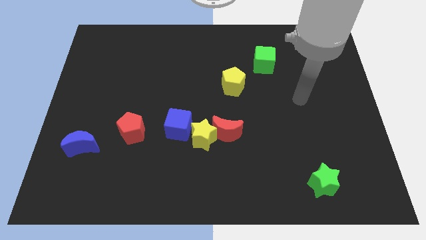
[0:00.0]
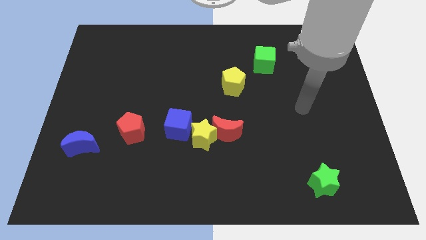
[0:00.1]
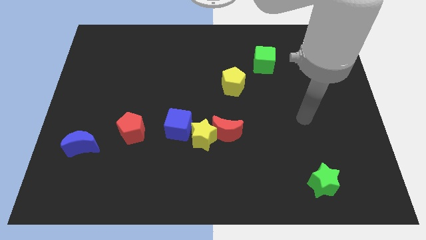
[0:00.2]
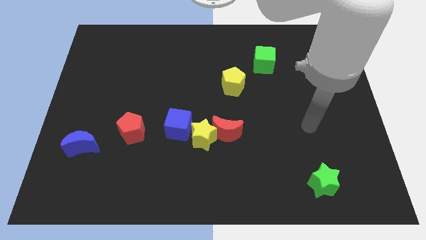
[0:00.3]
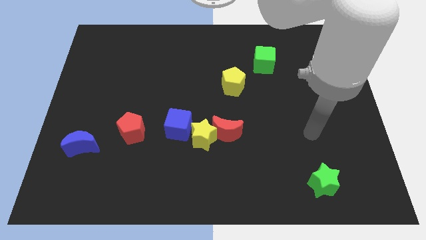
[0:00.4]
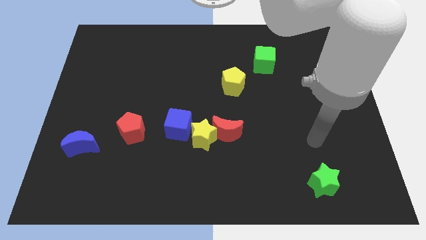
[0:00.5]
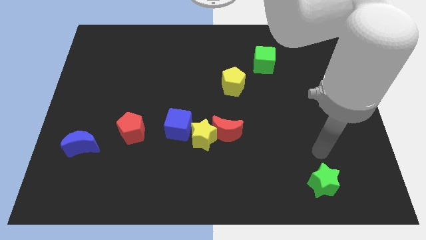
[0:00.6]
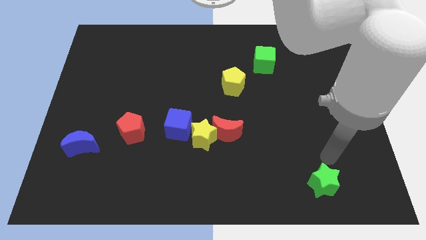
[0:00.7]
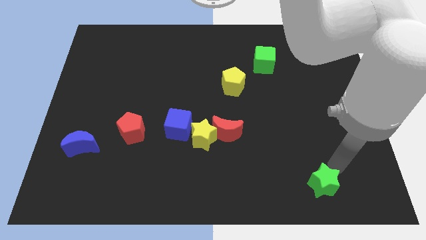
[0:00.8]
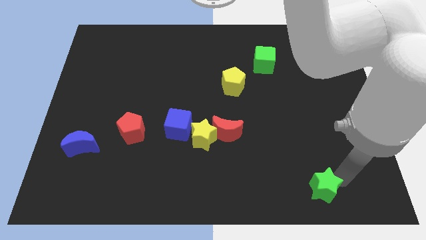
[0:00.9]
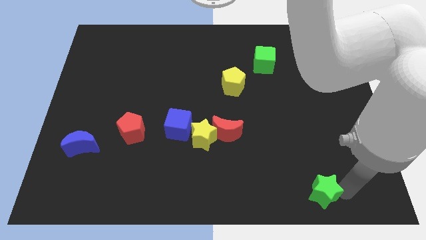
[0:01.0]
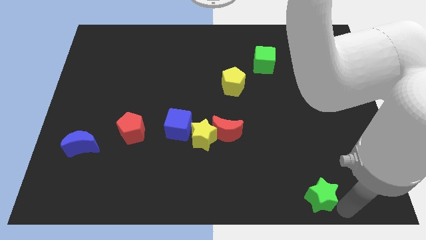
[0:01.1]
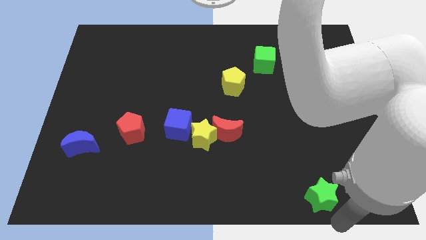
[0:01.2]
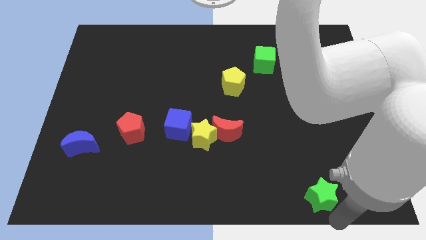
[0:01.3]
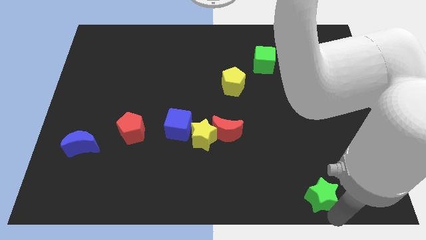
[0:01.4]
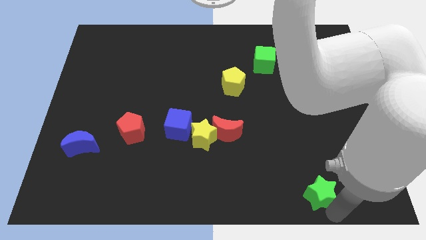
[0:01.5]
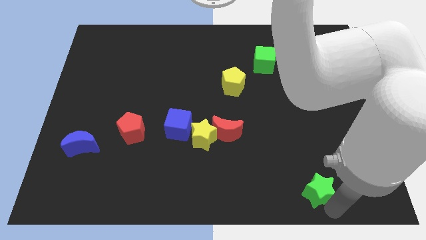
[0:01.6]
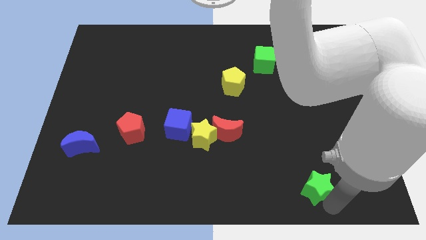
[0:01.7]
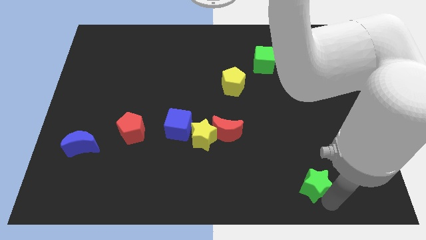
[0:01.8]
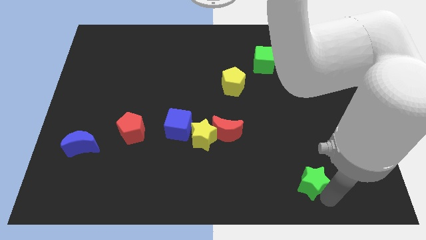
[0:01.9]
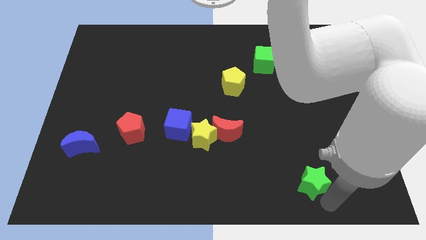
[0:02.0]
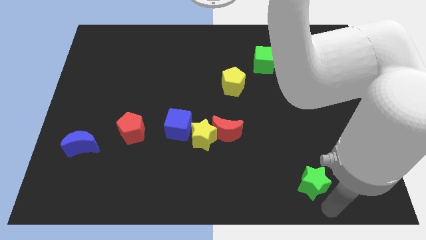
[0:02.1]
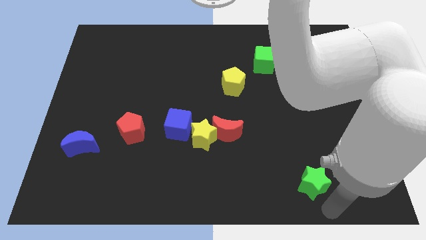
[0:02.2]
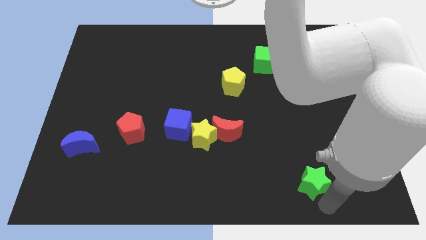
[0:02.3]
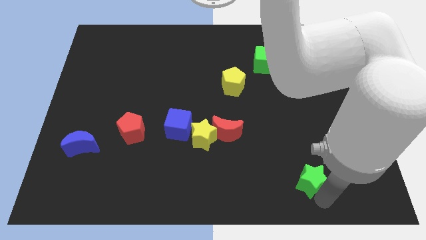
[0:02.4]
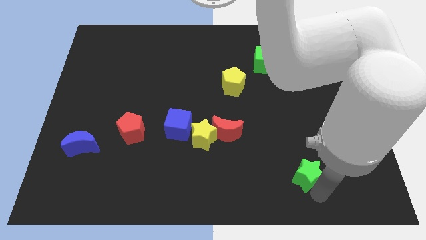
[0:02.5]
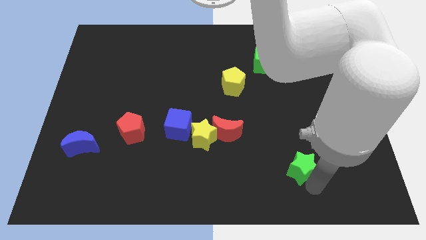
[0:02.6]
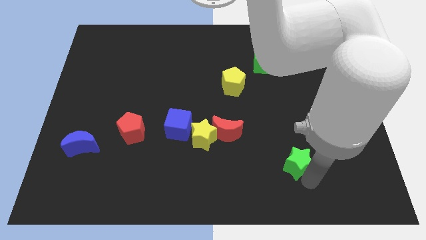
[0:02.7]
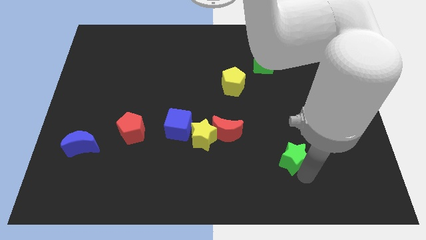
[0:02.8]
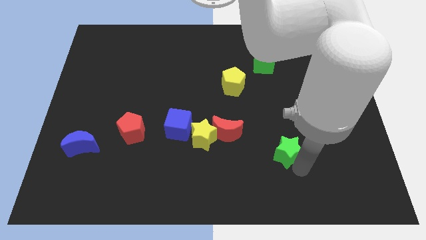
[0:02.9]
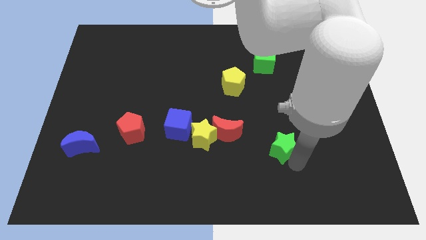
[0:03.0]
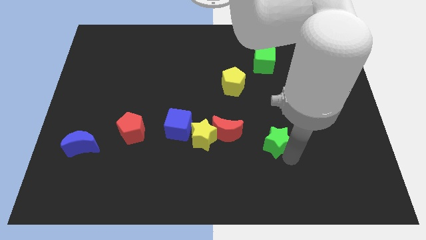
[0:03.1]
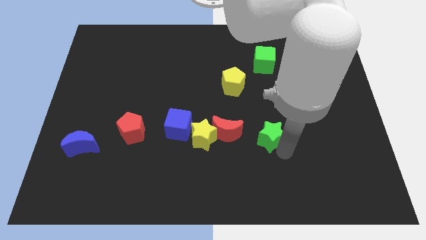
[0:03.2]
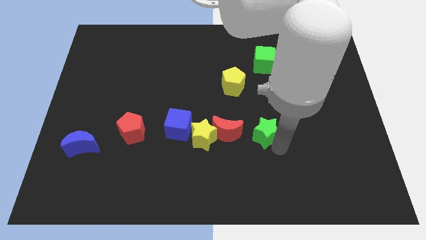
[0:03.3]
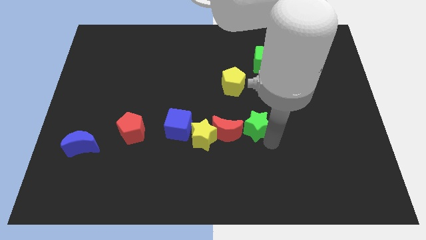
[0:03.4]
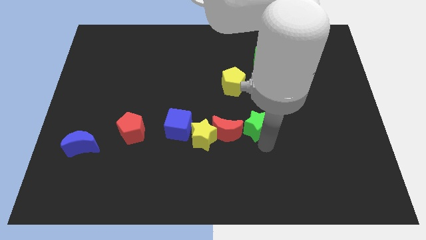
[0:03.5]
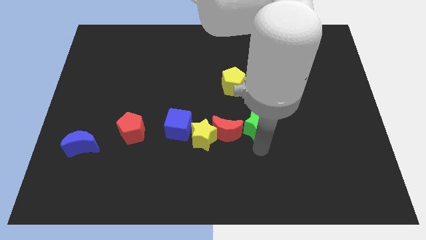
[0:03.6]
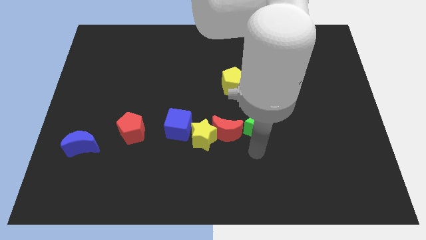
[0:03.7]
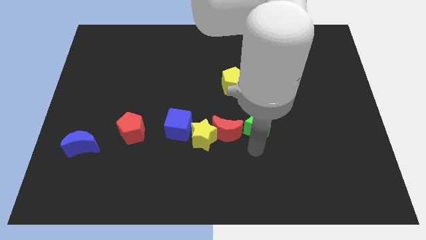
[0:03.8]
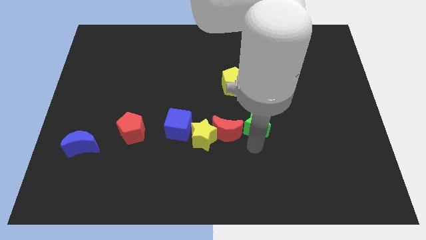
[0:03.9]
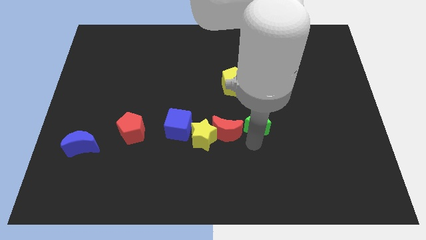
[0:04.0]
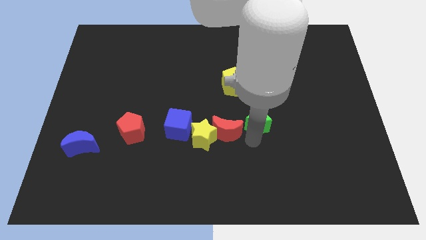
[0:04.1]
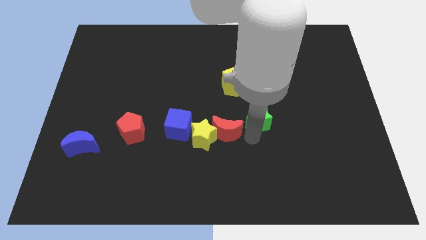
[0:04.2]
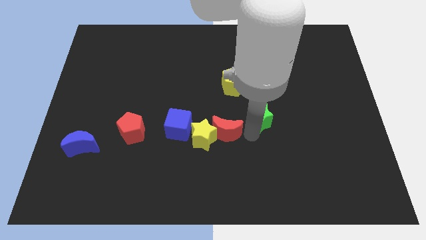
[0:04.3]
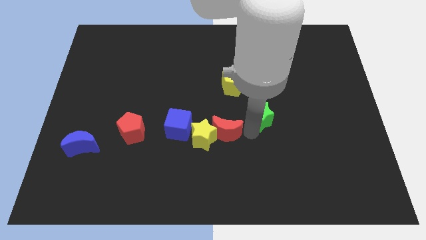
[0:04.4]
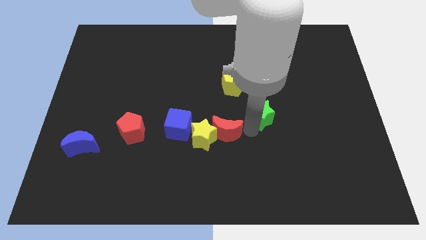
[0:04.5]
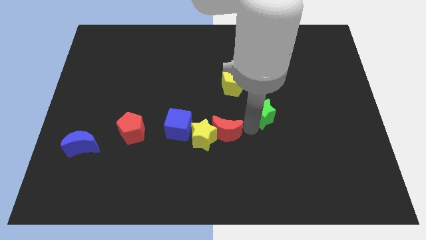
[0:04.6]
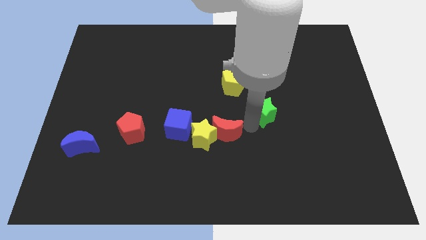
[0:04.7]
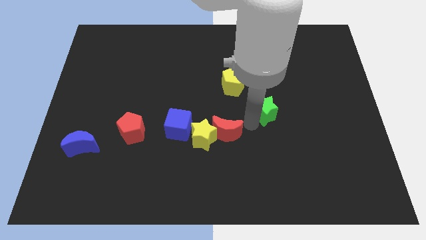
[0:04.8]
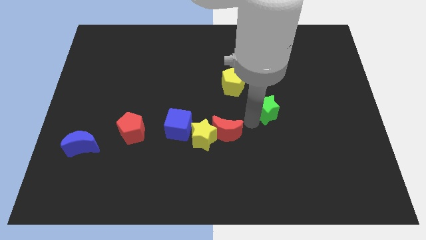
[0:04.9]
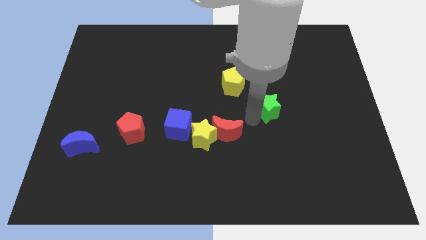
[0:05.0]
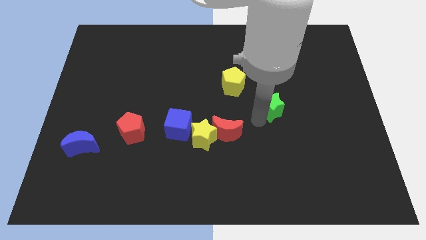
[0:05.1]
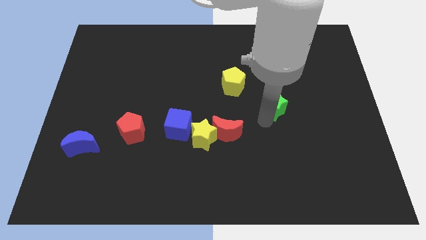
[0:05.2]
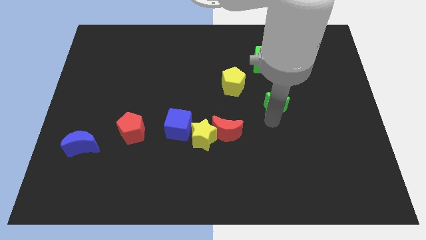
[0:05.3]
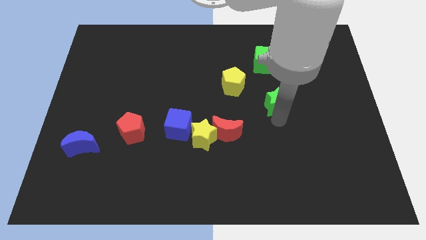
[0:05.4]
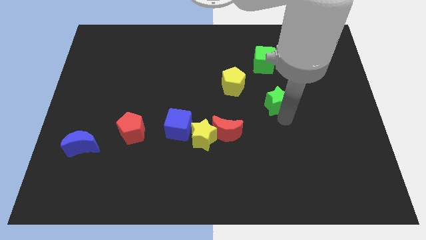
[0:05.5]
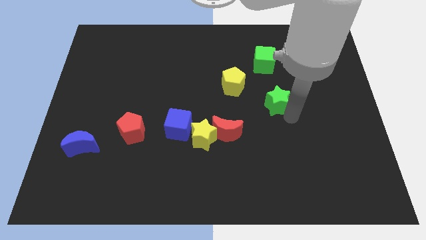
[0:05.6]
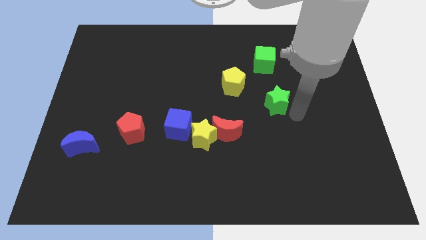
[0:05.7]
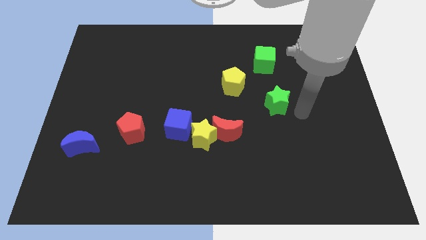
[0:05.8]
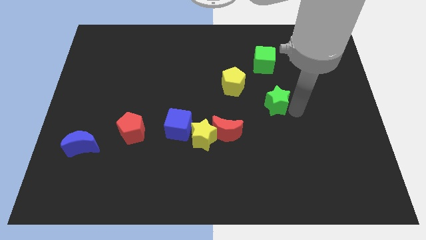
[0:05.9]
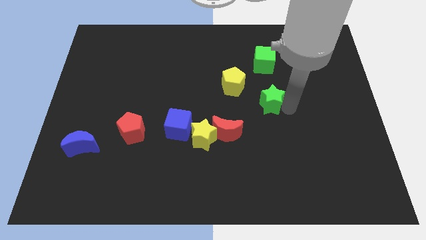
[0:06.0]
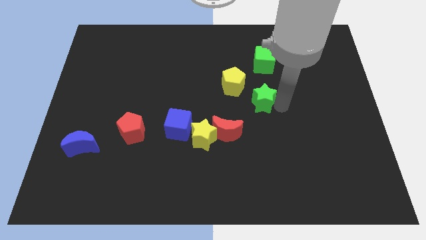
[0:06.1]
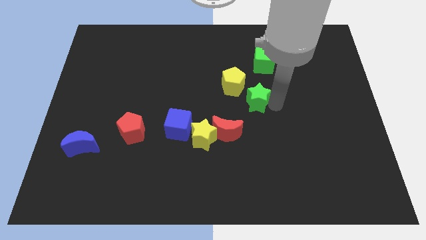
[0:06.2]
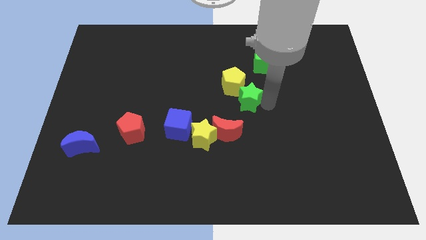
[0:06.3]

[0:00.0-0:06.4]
move the green star close to the yellow pentagon

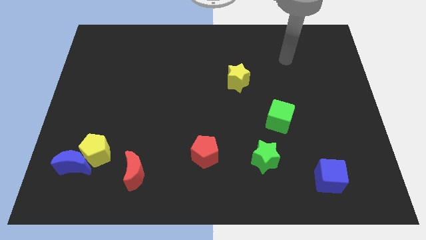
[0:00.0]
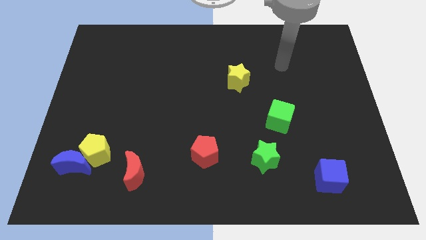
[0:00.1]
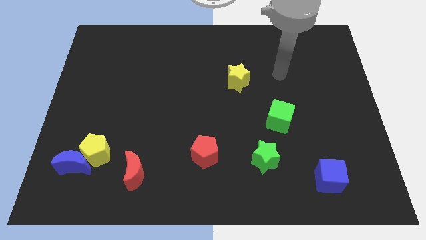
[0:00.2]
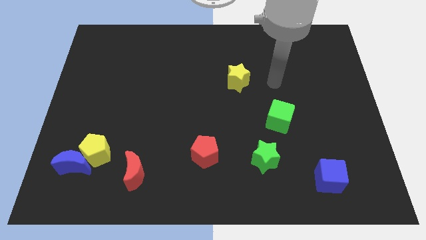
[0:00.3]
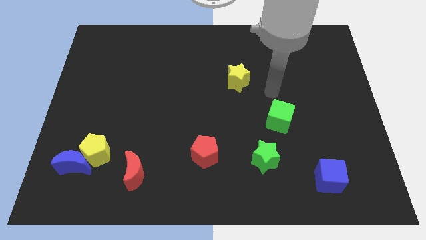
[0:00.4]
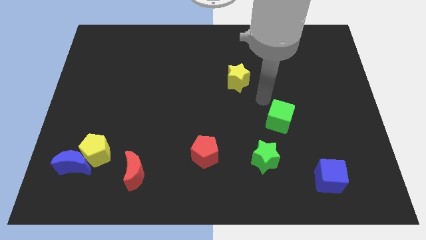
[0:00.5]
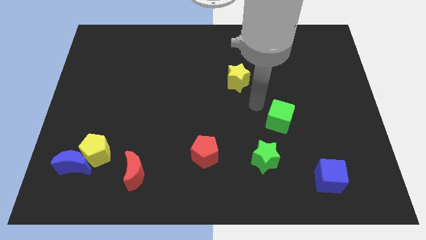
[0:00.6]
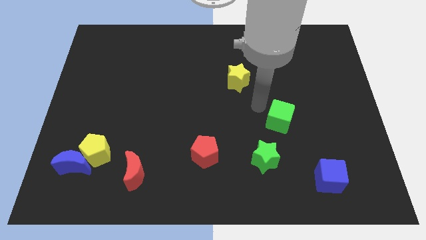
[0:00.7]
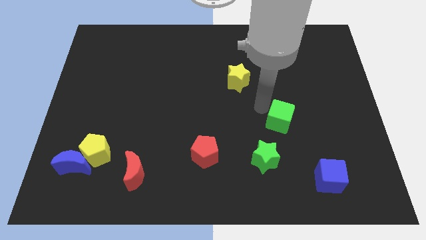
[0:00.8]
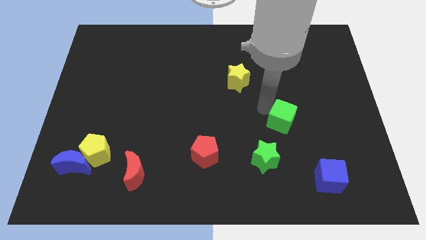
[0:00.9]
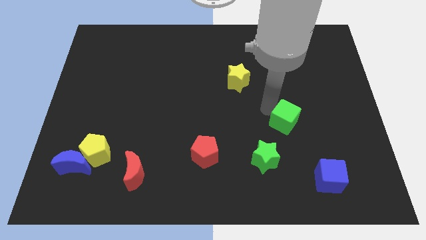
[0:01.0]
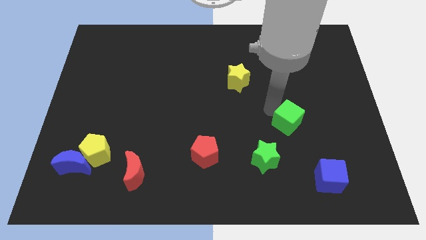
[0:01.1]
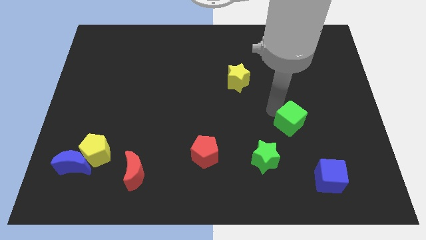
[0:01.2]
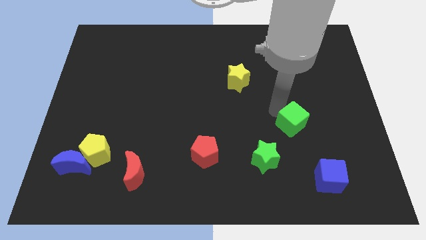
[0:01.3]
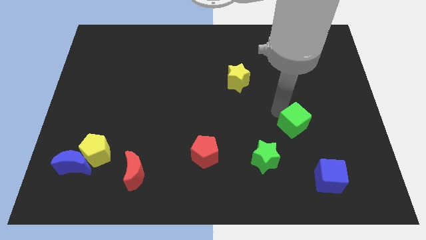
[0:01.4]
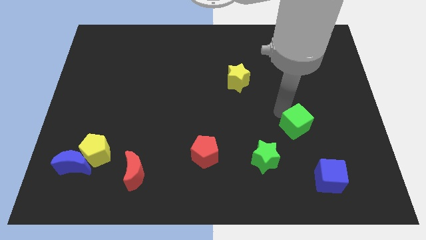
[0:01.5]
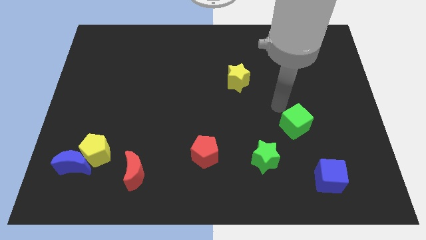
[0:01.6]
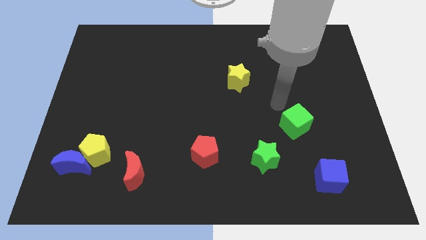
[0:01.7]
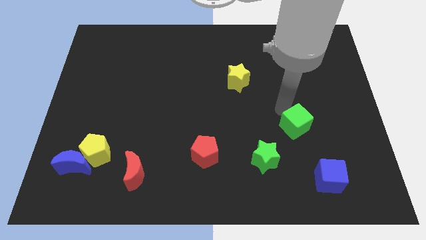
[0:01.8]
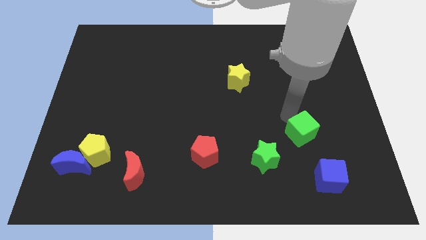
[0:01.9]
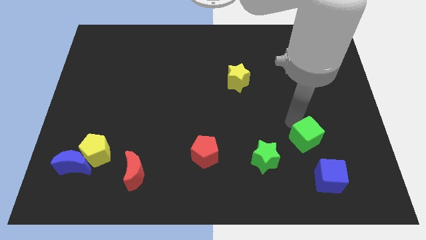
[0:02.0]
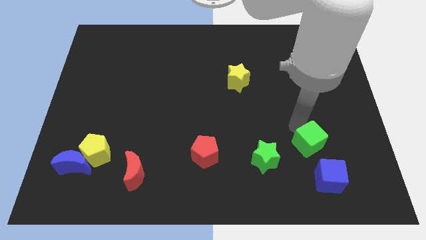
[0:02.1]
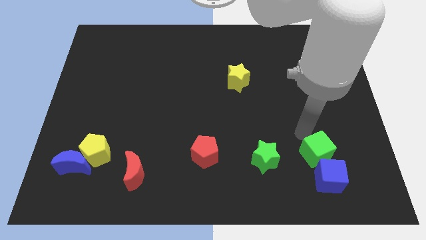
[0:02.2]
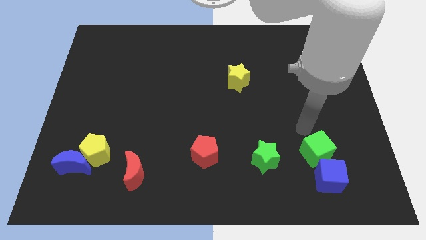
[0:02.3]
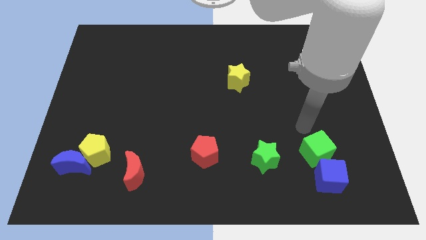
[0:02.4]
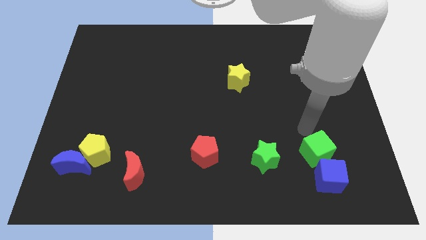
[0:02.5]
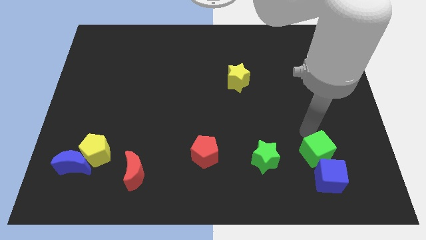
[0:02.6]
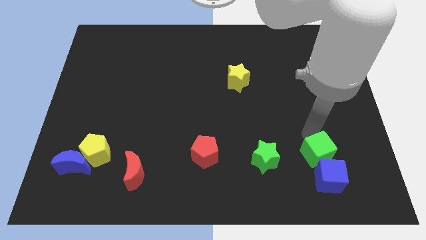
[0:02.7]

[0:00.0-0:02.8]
push the green cube next to the blue cube
